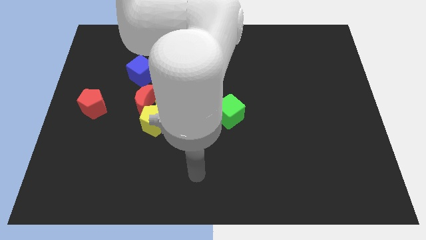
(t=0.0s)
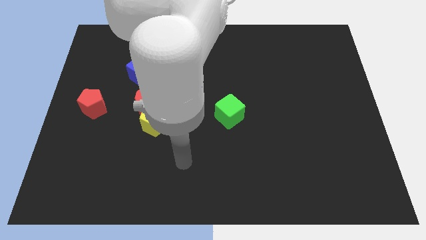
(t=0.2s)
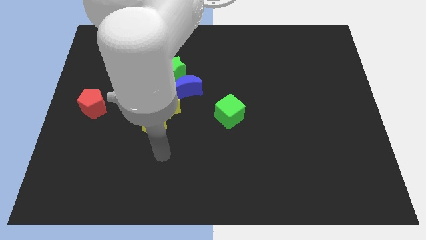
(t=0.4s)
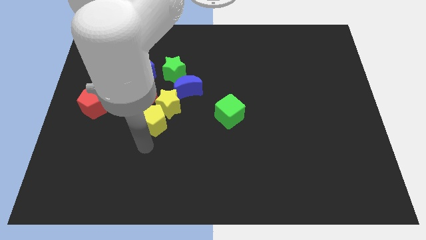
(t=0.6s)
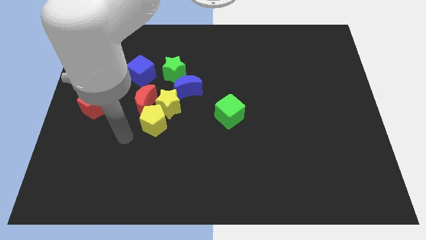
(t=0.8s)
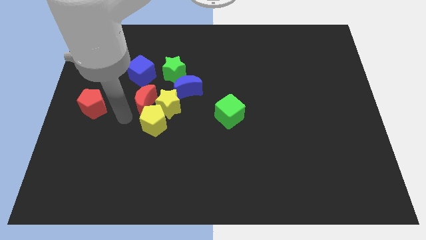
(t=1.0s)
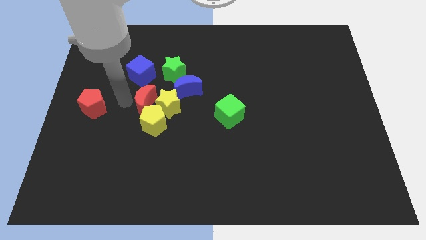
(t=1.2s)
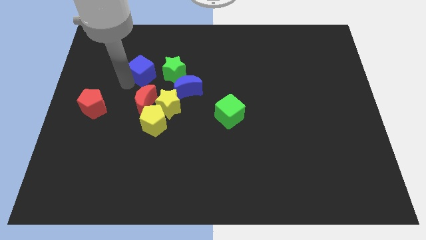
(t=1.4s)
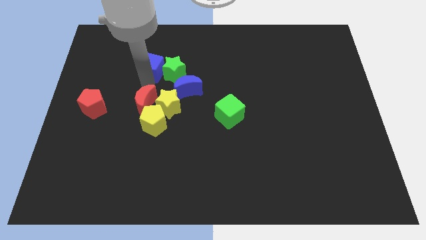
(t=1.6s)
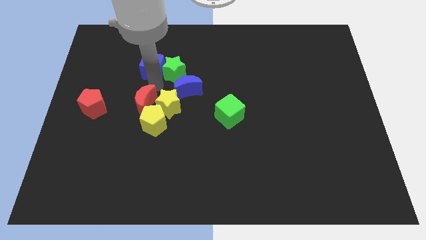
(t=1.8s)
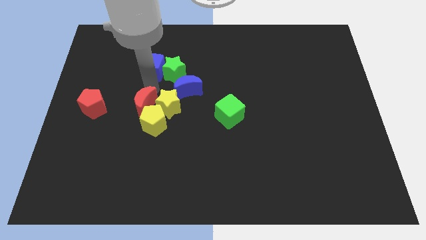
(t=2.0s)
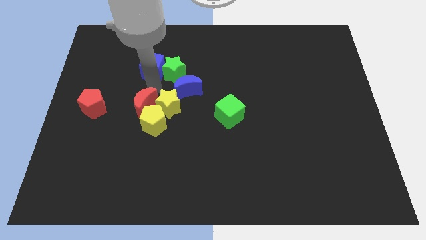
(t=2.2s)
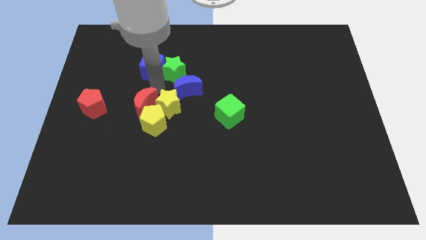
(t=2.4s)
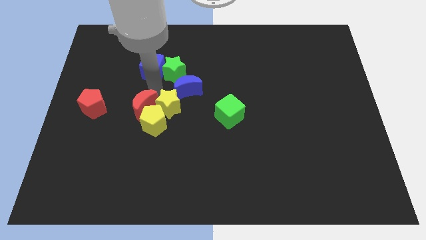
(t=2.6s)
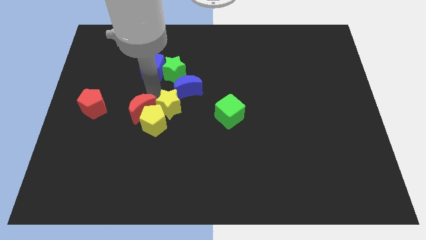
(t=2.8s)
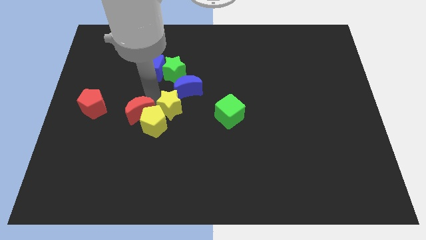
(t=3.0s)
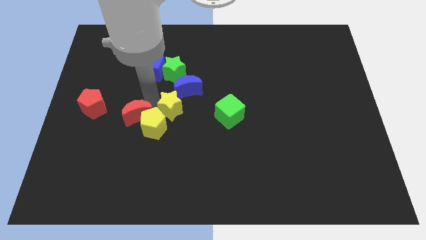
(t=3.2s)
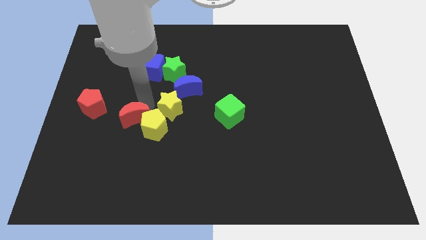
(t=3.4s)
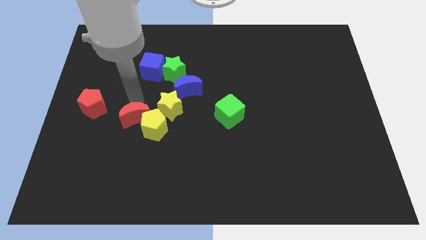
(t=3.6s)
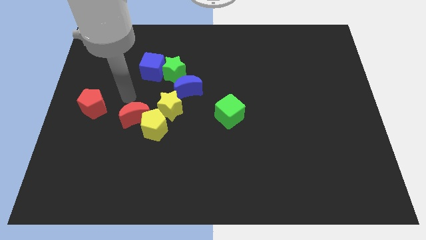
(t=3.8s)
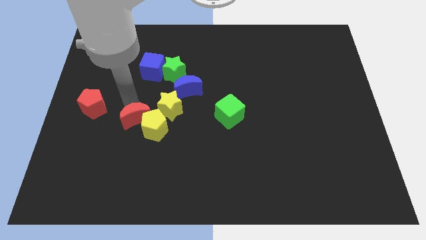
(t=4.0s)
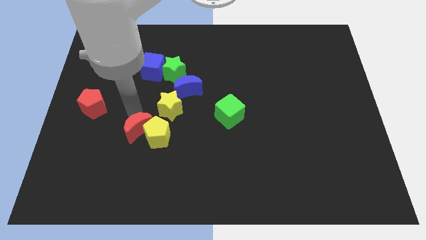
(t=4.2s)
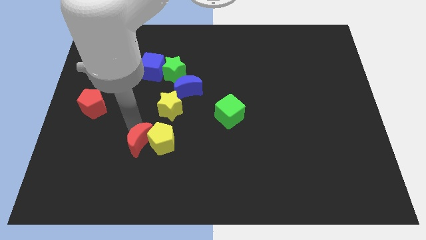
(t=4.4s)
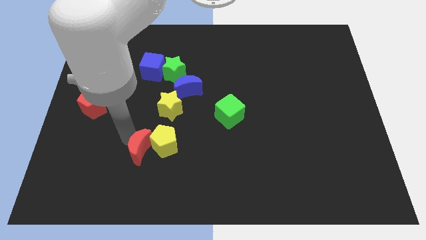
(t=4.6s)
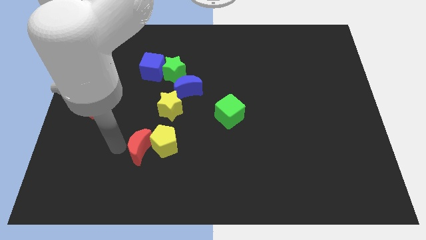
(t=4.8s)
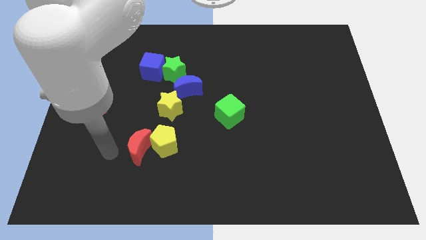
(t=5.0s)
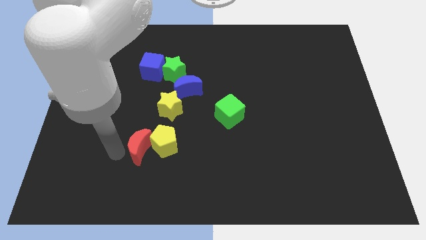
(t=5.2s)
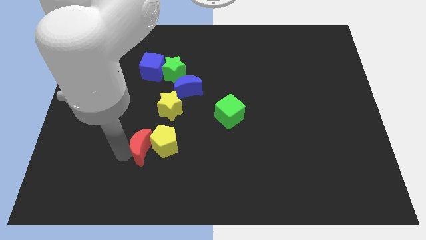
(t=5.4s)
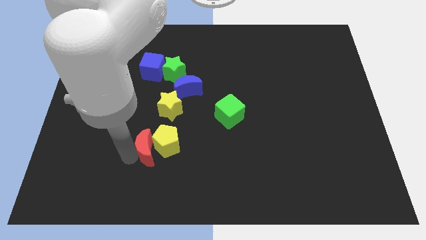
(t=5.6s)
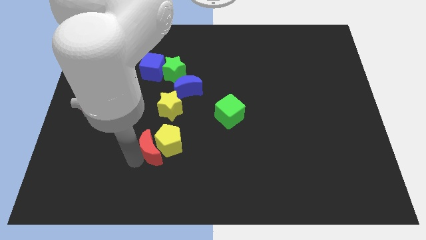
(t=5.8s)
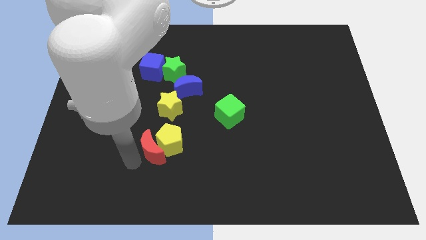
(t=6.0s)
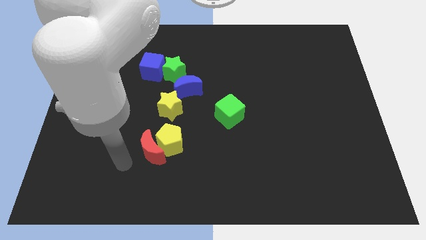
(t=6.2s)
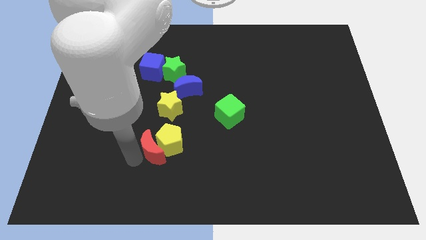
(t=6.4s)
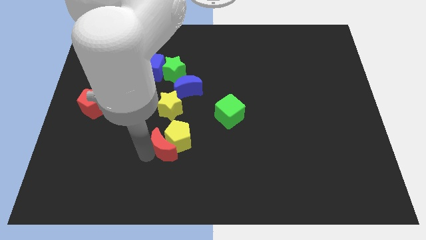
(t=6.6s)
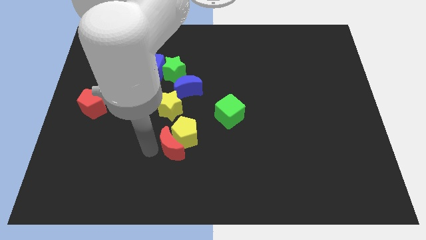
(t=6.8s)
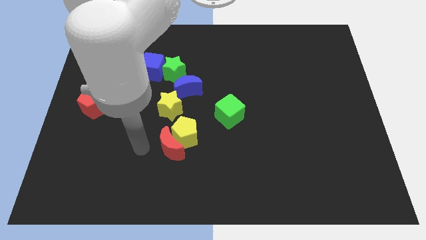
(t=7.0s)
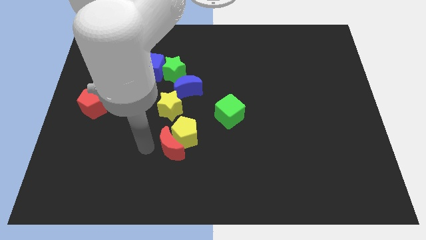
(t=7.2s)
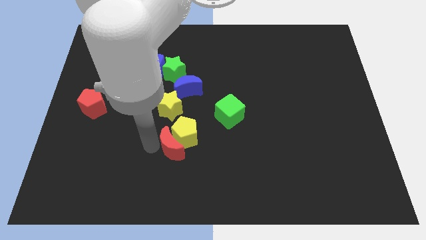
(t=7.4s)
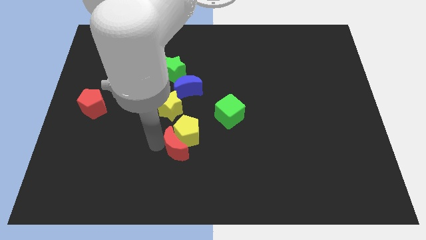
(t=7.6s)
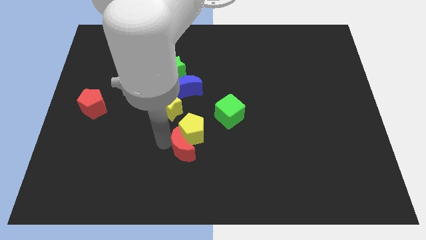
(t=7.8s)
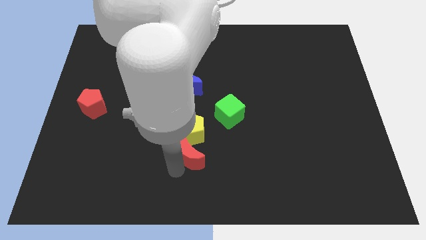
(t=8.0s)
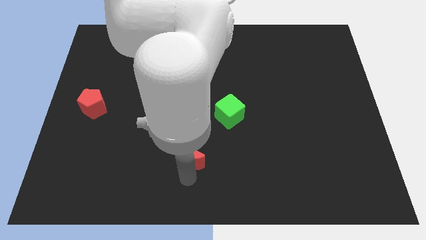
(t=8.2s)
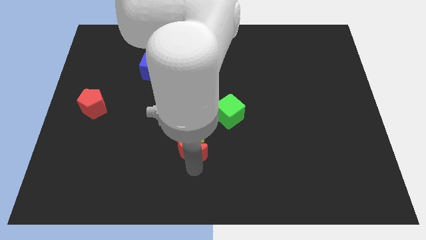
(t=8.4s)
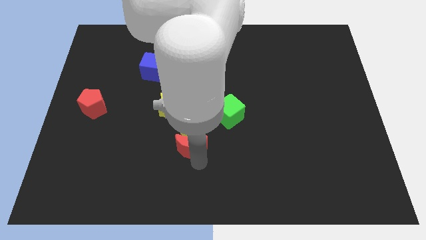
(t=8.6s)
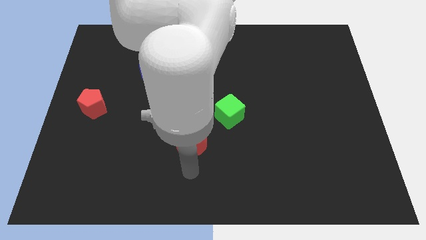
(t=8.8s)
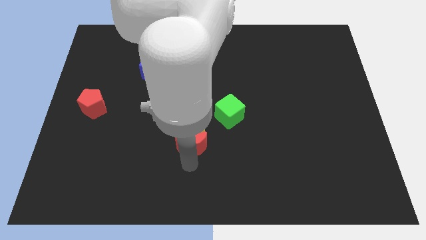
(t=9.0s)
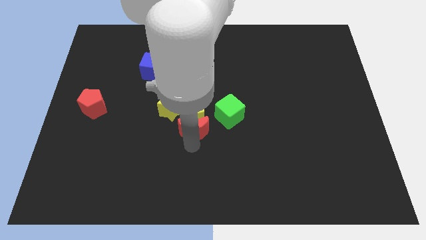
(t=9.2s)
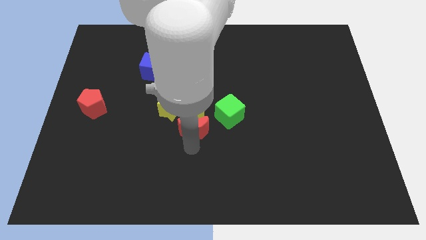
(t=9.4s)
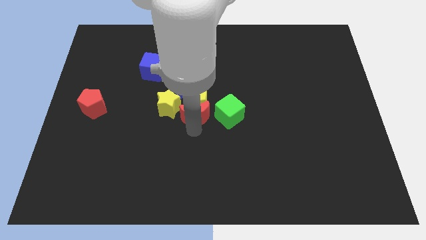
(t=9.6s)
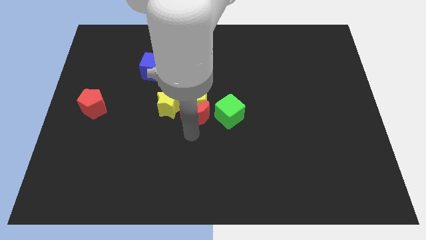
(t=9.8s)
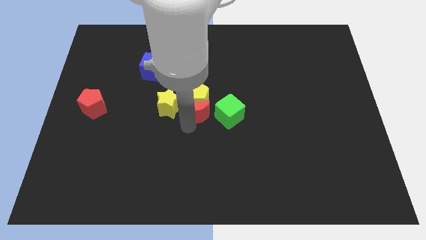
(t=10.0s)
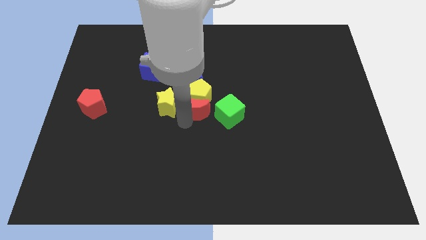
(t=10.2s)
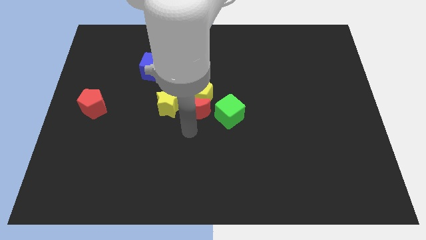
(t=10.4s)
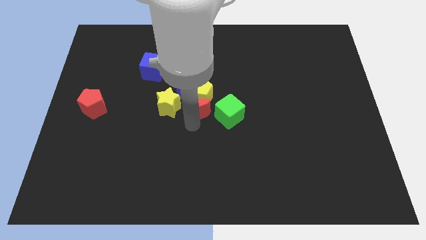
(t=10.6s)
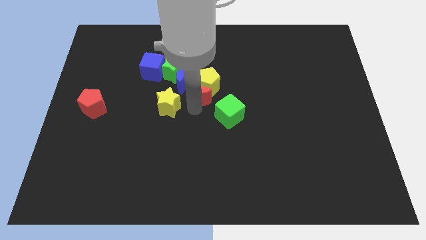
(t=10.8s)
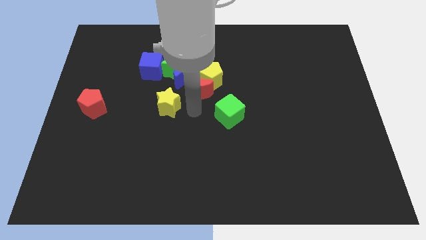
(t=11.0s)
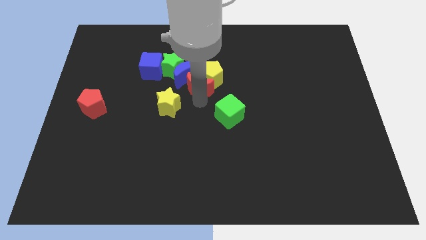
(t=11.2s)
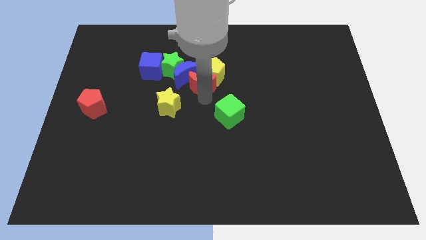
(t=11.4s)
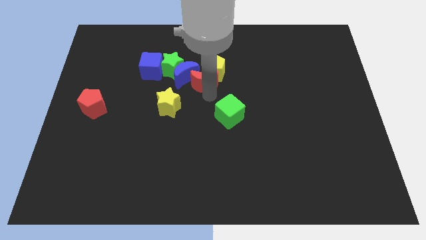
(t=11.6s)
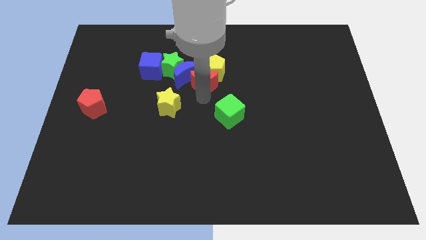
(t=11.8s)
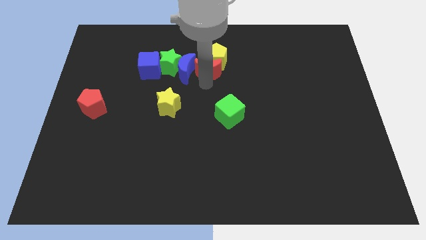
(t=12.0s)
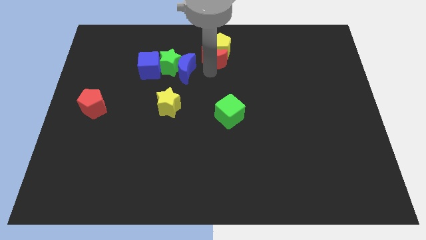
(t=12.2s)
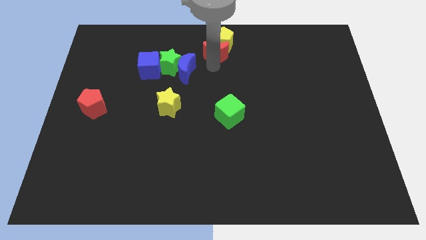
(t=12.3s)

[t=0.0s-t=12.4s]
move the red moon to the top
